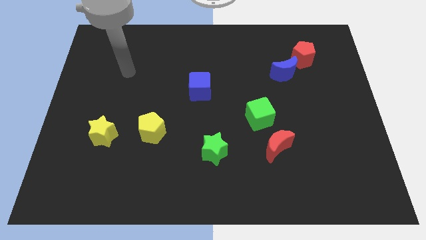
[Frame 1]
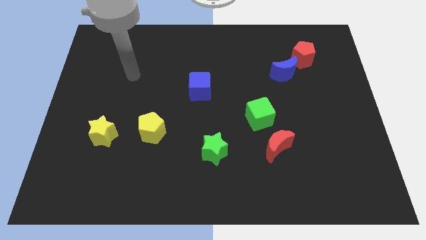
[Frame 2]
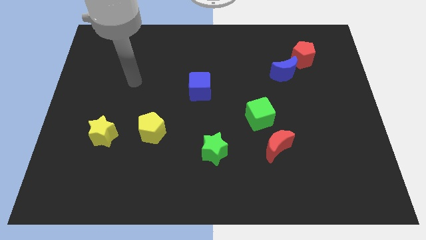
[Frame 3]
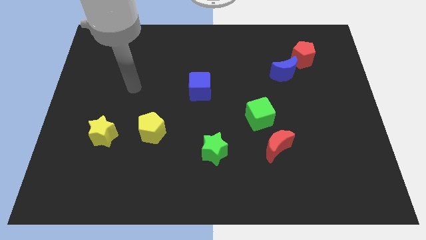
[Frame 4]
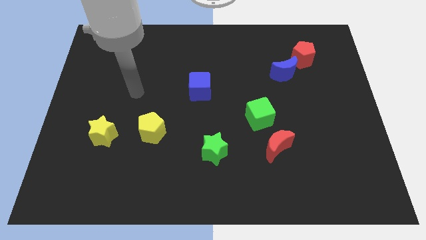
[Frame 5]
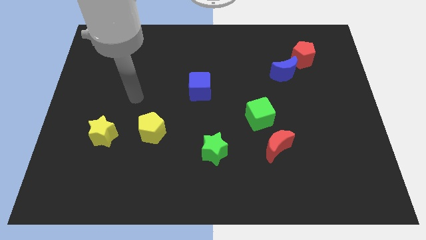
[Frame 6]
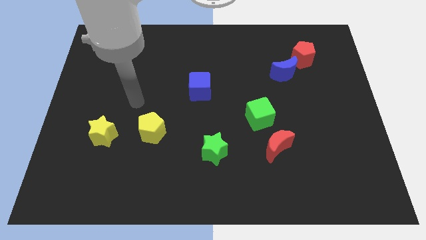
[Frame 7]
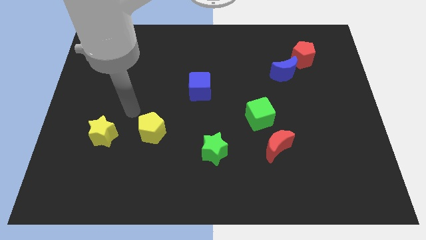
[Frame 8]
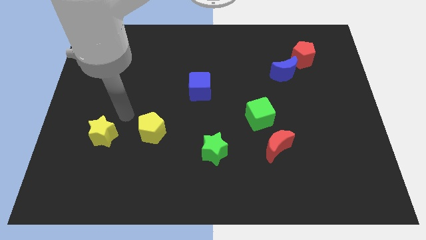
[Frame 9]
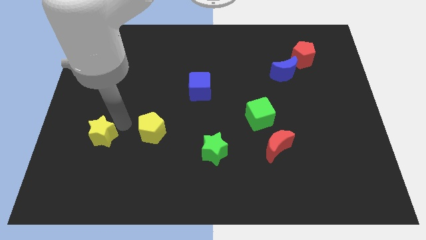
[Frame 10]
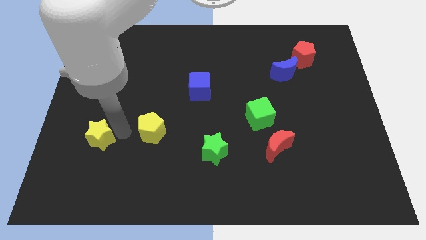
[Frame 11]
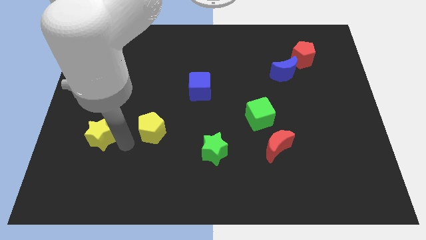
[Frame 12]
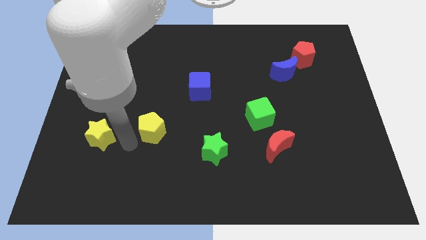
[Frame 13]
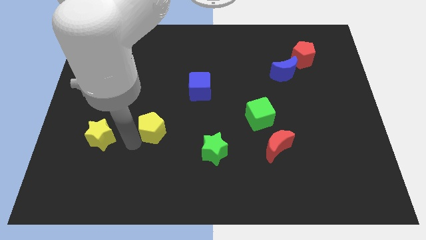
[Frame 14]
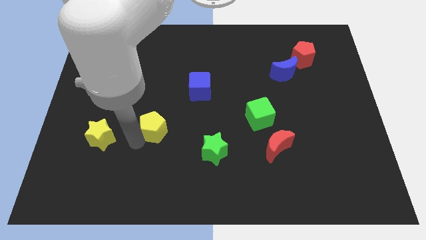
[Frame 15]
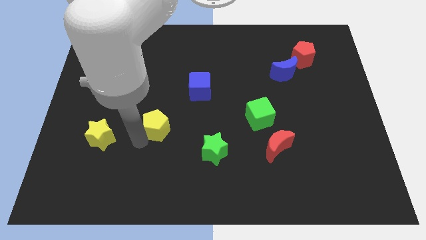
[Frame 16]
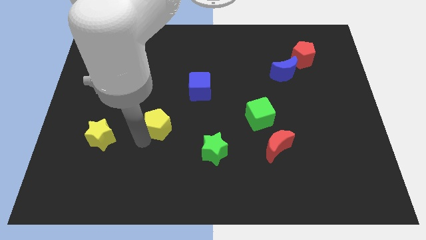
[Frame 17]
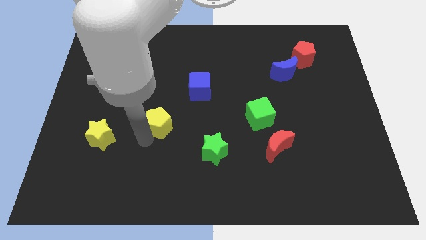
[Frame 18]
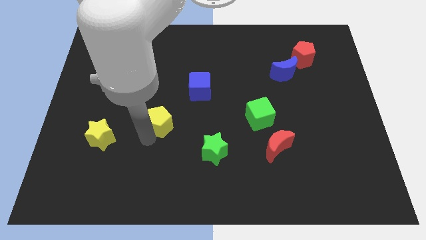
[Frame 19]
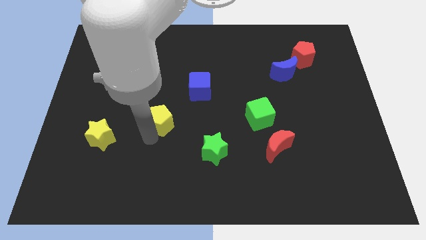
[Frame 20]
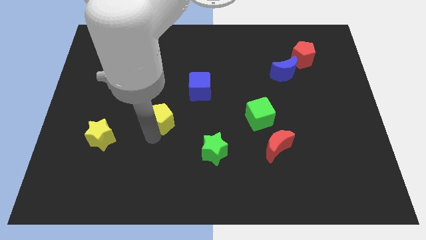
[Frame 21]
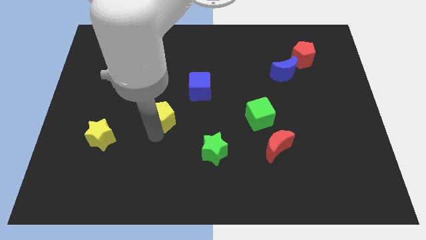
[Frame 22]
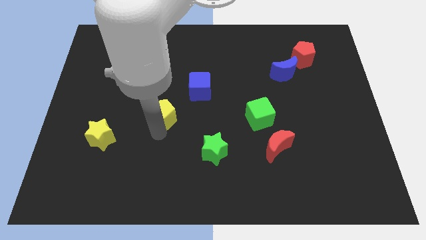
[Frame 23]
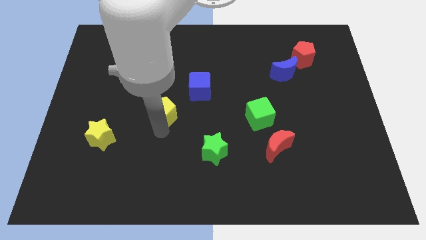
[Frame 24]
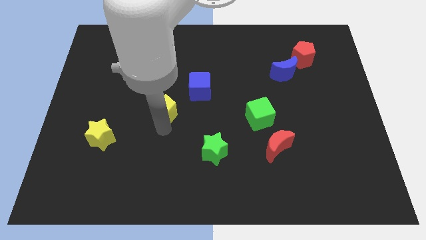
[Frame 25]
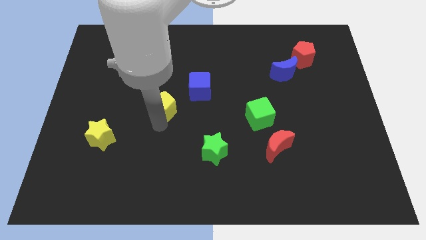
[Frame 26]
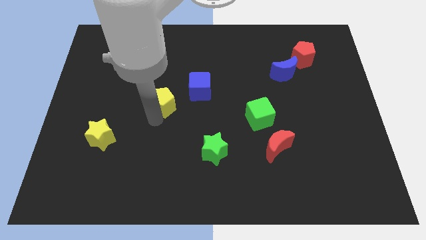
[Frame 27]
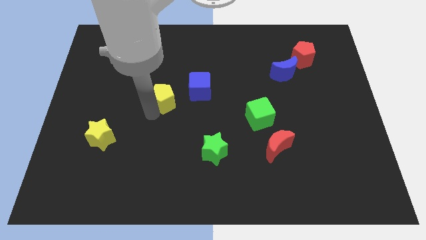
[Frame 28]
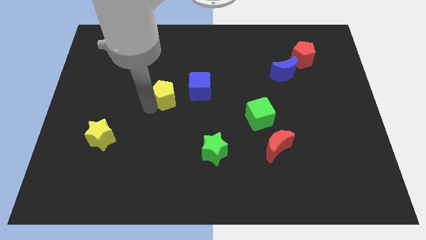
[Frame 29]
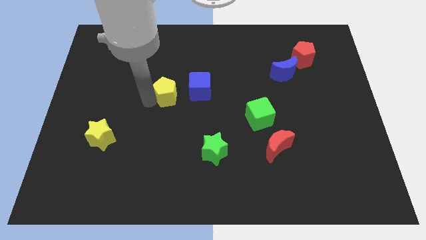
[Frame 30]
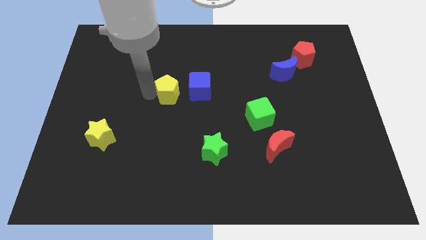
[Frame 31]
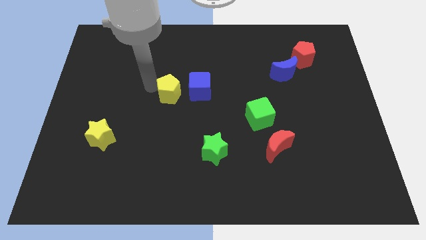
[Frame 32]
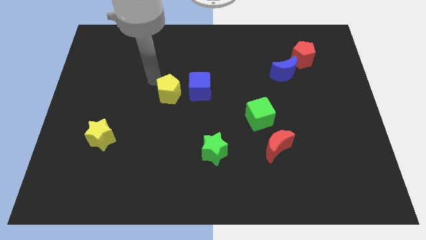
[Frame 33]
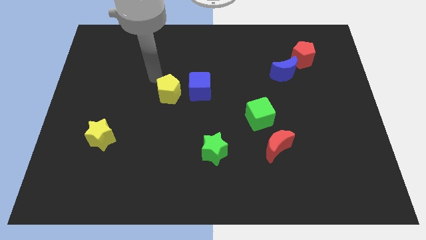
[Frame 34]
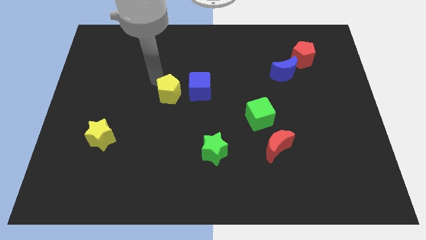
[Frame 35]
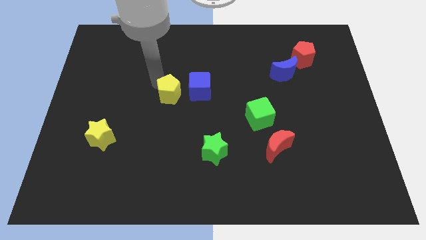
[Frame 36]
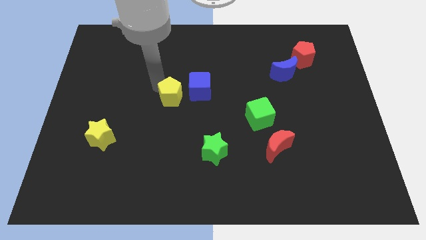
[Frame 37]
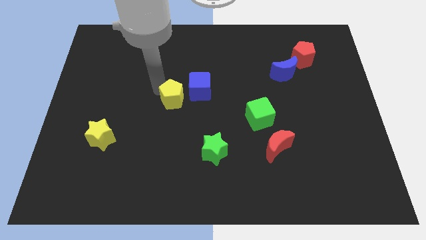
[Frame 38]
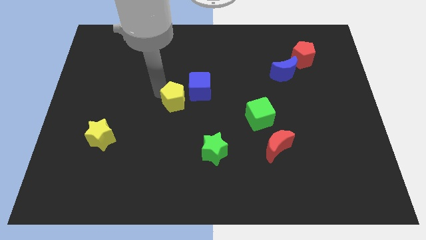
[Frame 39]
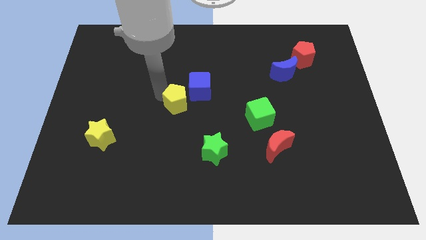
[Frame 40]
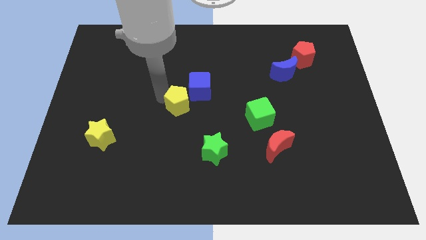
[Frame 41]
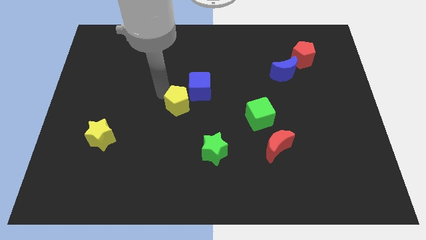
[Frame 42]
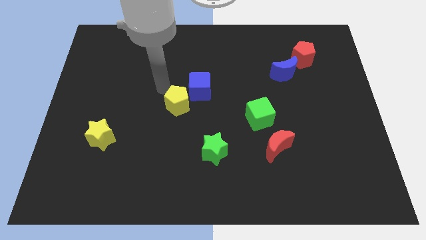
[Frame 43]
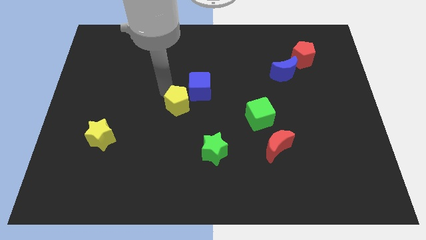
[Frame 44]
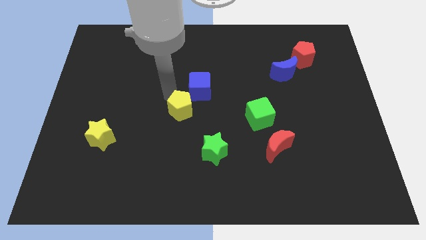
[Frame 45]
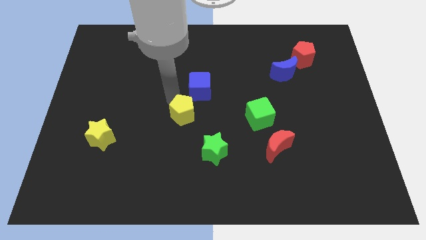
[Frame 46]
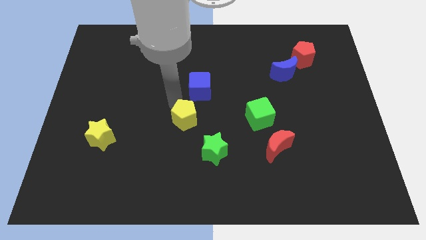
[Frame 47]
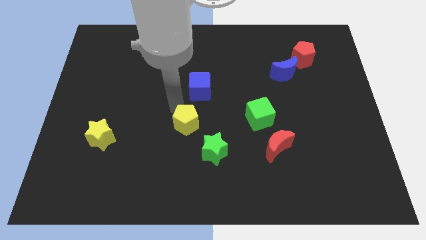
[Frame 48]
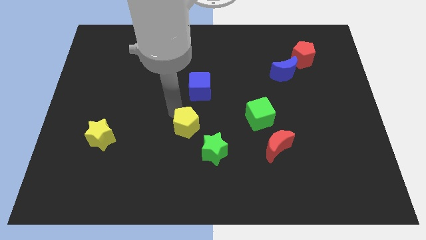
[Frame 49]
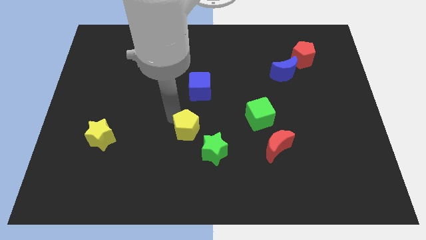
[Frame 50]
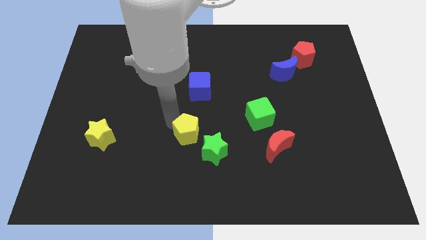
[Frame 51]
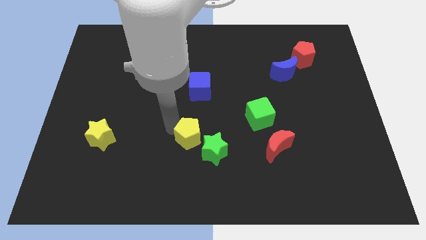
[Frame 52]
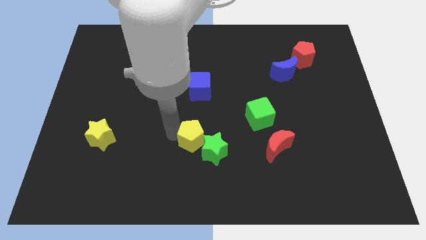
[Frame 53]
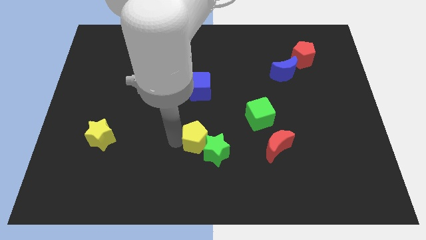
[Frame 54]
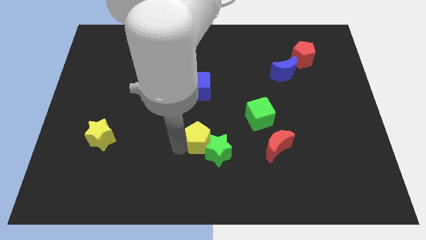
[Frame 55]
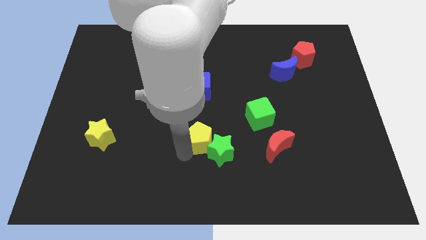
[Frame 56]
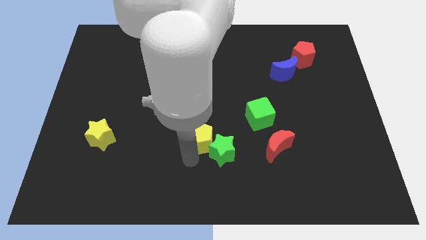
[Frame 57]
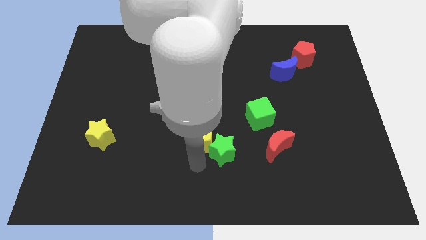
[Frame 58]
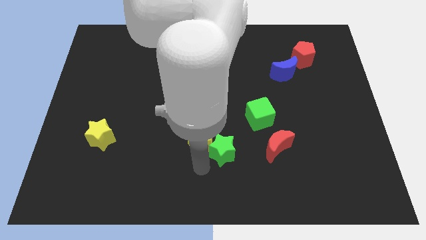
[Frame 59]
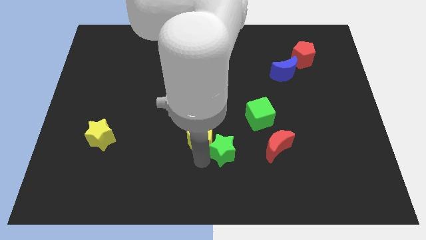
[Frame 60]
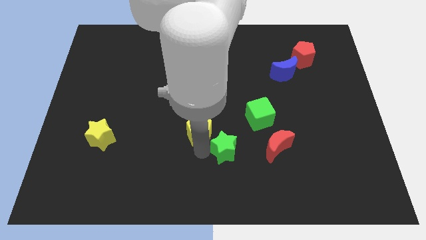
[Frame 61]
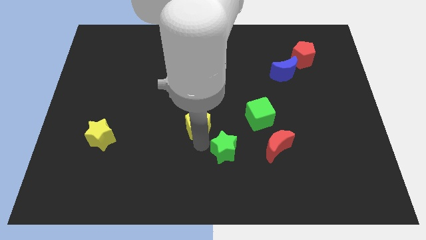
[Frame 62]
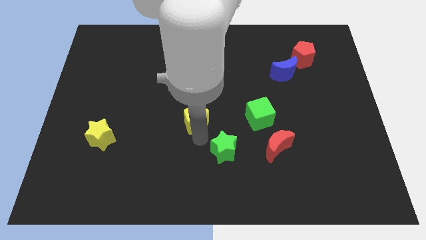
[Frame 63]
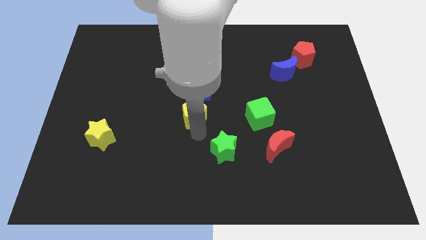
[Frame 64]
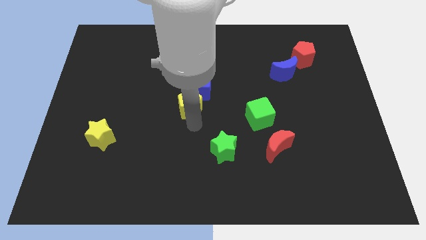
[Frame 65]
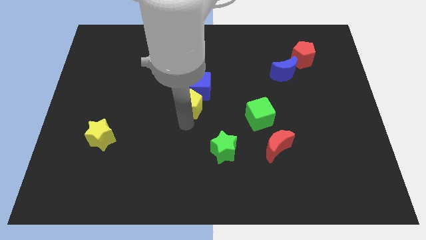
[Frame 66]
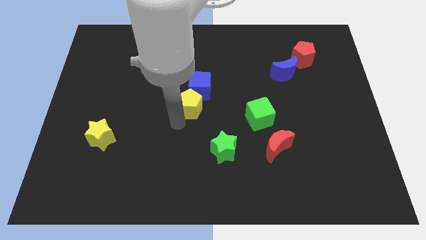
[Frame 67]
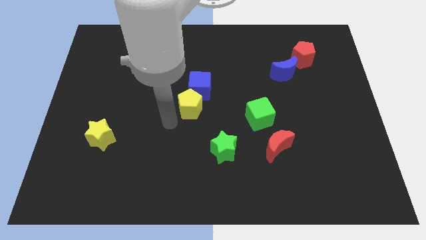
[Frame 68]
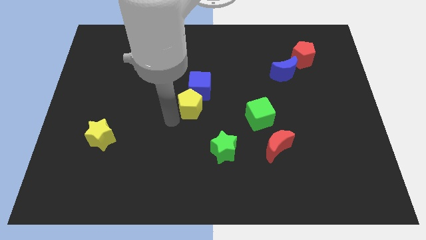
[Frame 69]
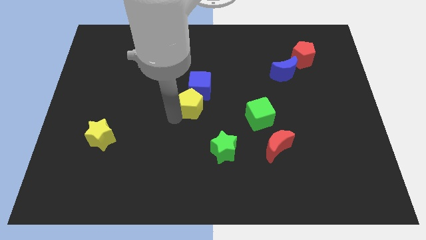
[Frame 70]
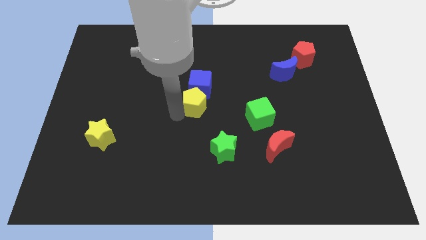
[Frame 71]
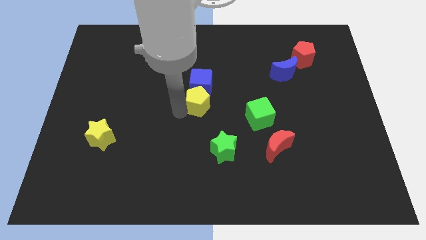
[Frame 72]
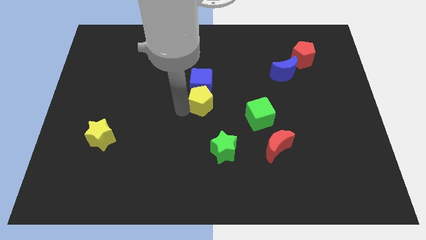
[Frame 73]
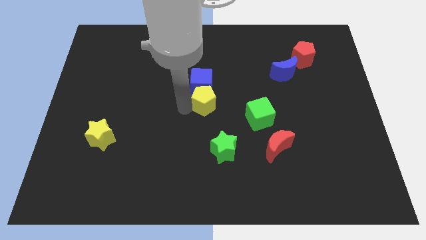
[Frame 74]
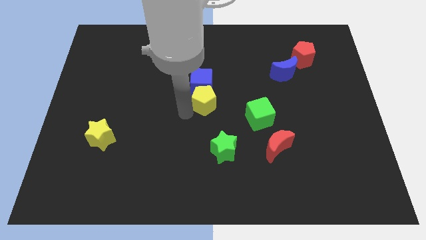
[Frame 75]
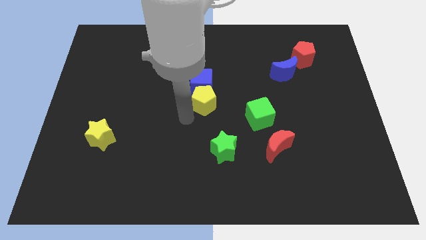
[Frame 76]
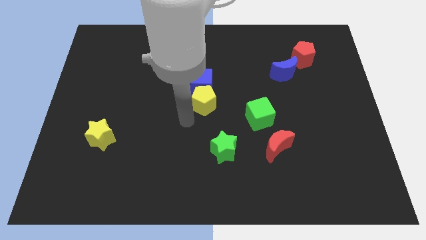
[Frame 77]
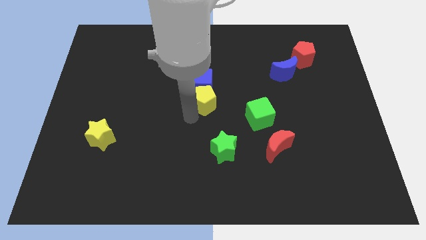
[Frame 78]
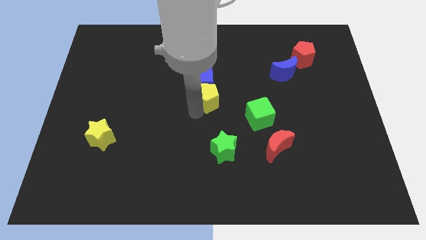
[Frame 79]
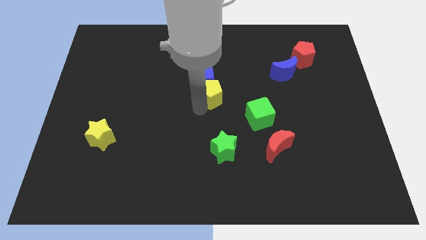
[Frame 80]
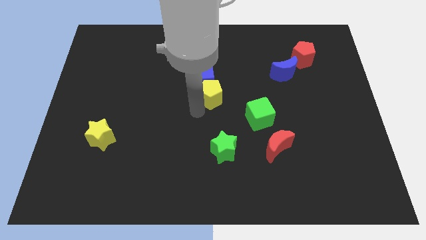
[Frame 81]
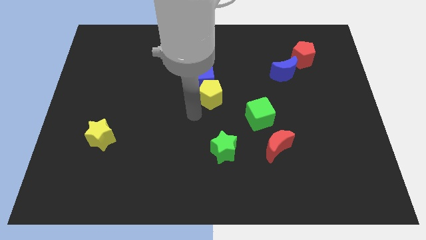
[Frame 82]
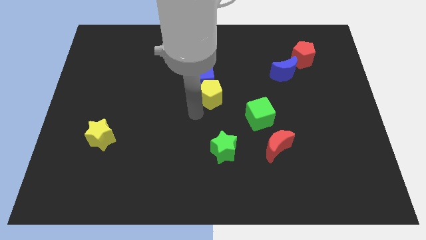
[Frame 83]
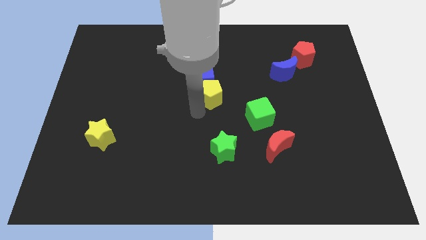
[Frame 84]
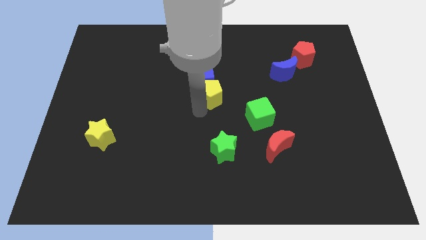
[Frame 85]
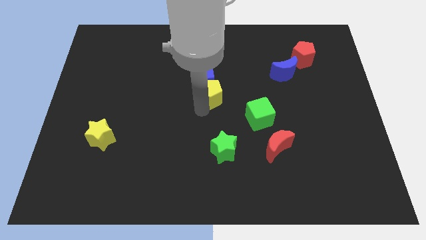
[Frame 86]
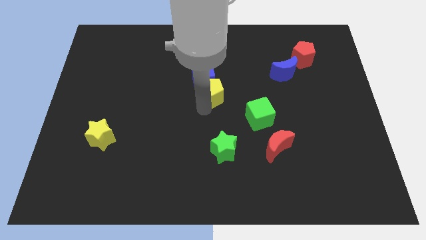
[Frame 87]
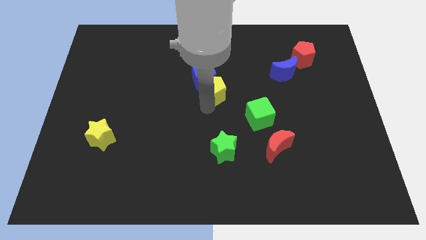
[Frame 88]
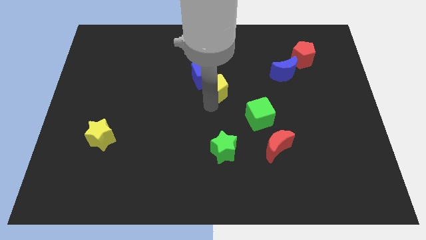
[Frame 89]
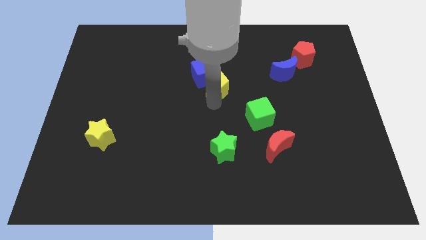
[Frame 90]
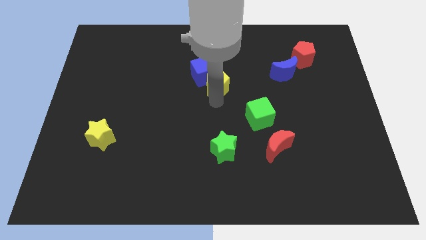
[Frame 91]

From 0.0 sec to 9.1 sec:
slide the yellow pentagon up and to the right
